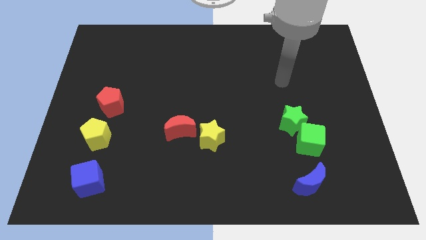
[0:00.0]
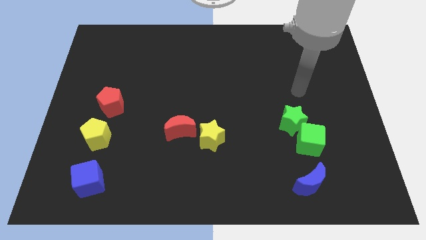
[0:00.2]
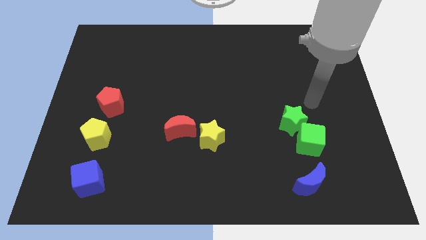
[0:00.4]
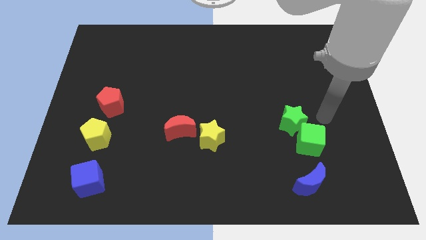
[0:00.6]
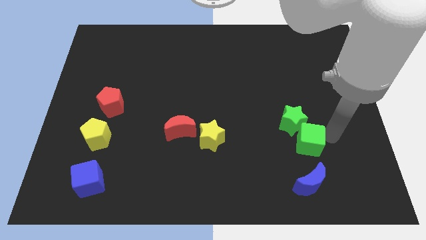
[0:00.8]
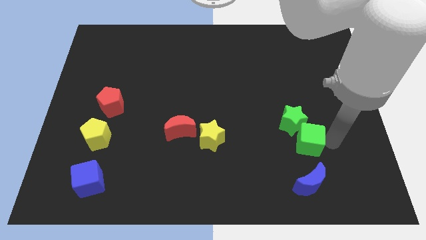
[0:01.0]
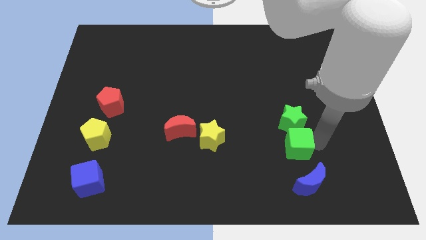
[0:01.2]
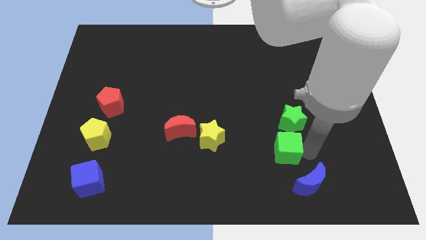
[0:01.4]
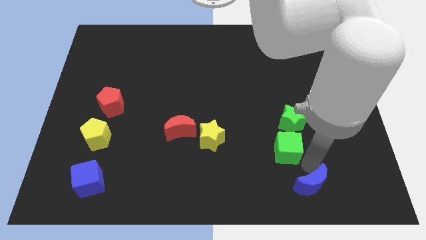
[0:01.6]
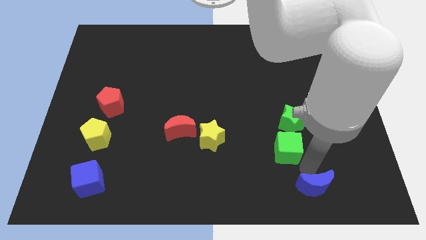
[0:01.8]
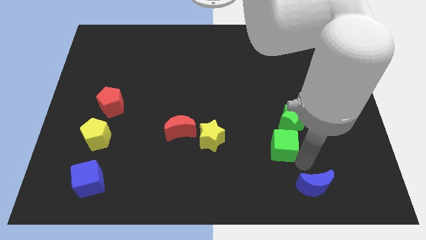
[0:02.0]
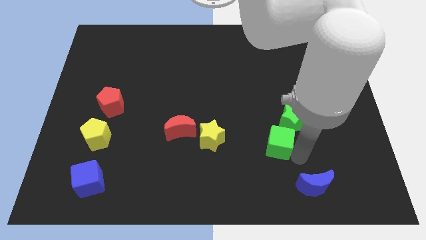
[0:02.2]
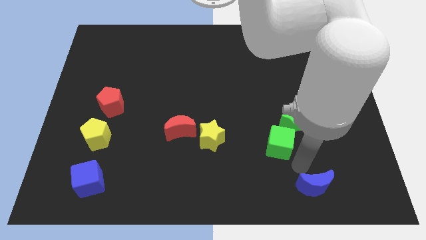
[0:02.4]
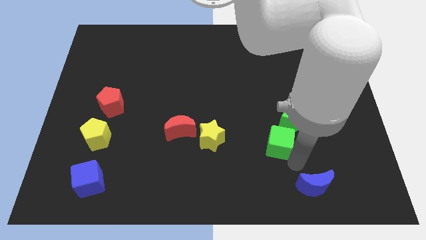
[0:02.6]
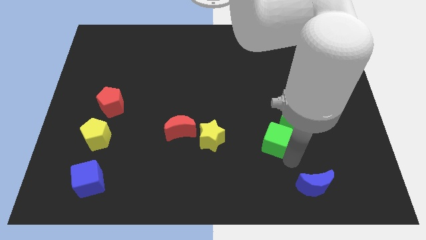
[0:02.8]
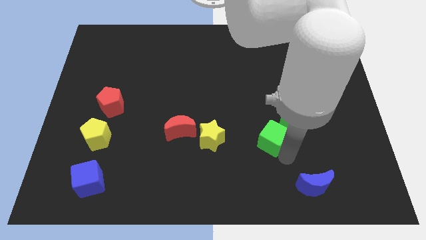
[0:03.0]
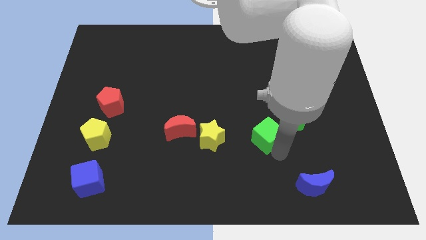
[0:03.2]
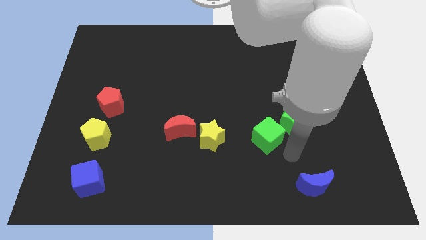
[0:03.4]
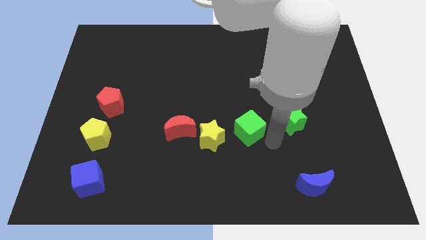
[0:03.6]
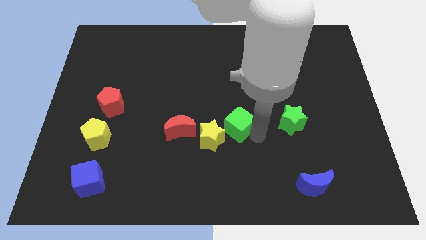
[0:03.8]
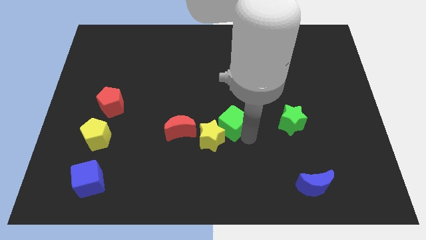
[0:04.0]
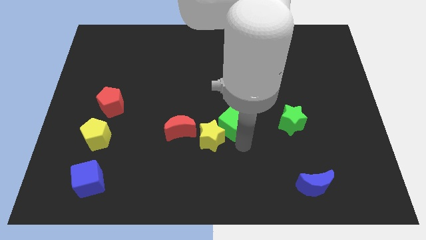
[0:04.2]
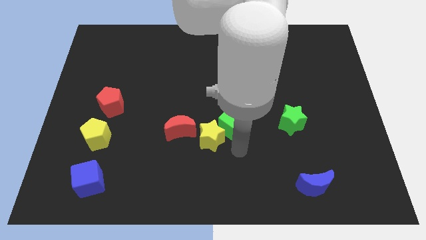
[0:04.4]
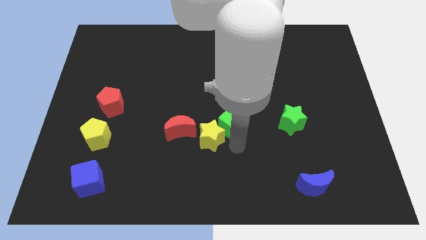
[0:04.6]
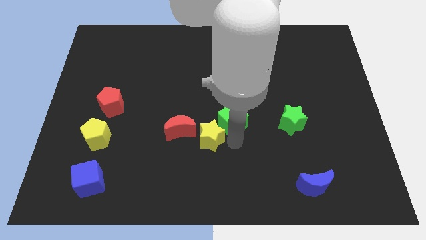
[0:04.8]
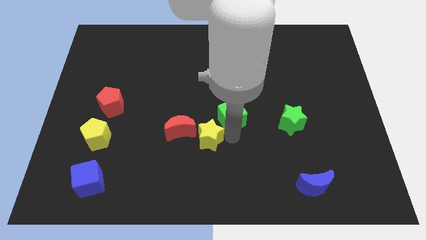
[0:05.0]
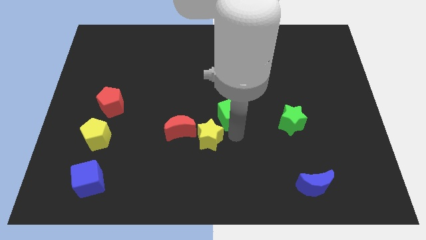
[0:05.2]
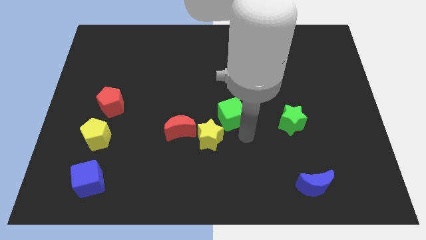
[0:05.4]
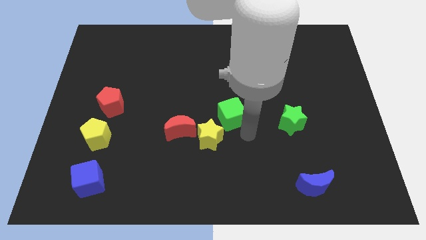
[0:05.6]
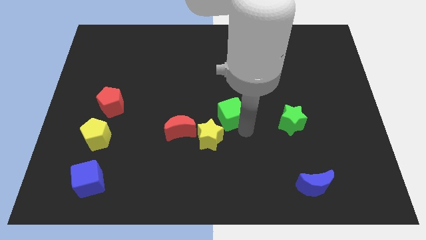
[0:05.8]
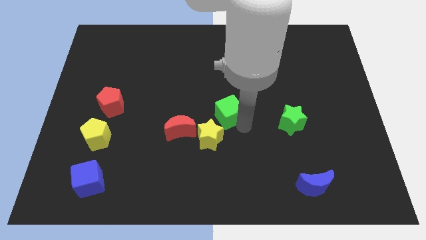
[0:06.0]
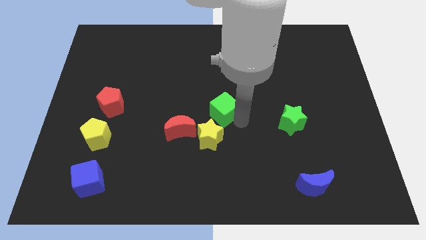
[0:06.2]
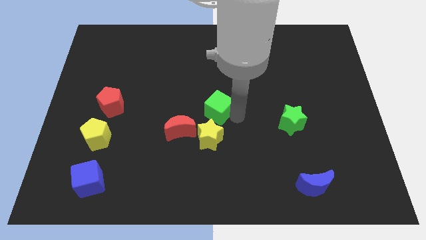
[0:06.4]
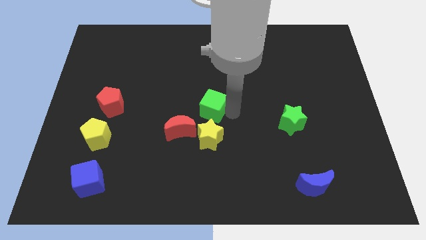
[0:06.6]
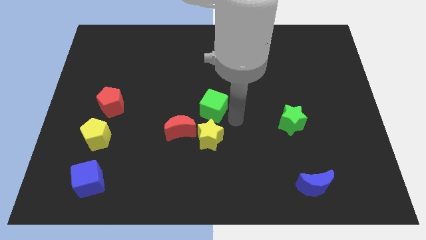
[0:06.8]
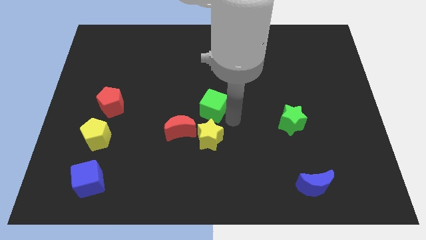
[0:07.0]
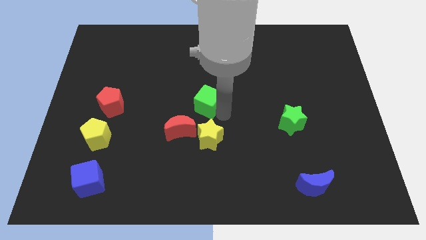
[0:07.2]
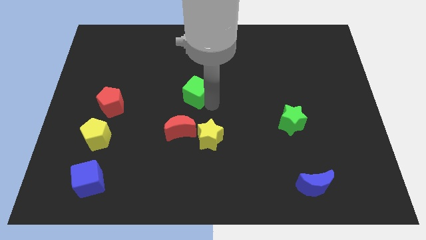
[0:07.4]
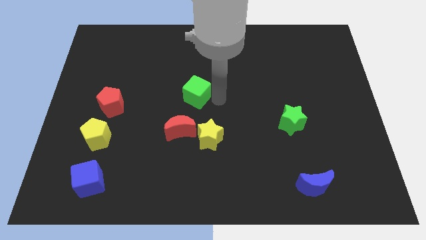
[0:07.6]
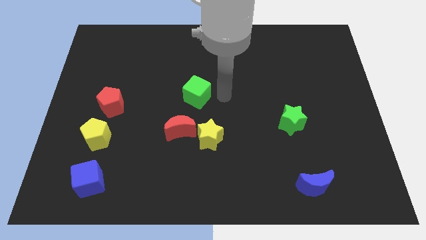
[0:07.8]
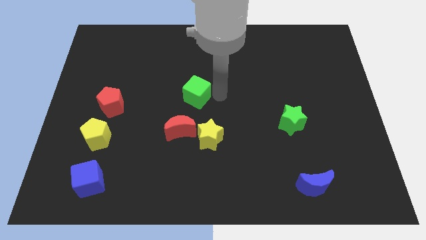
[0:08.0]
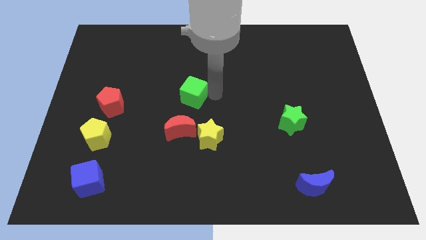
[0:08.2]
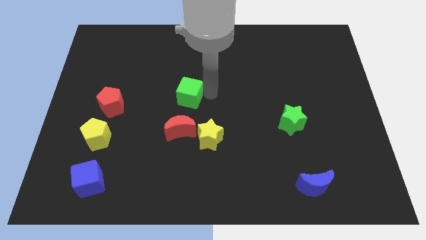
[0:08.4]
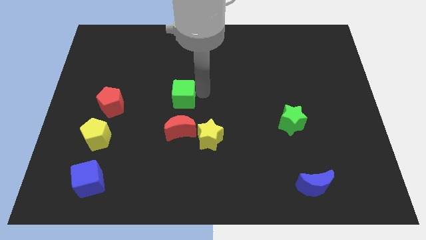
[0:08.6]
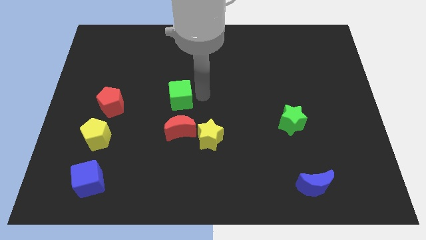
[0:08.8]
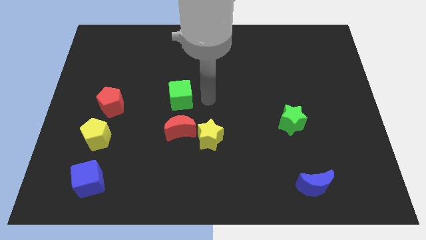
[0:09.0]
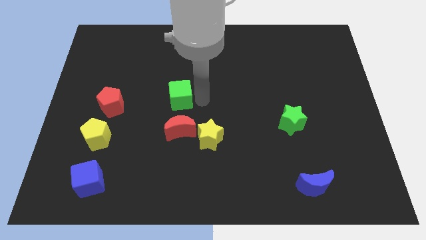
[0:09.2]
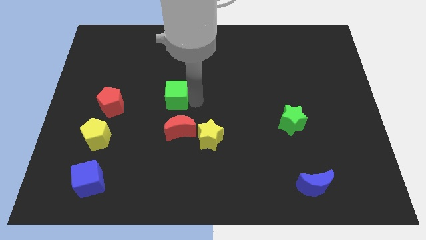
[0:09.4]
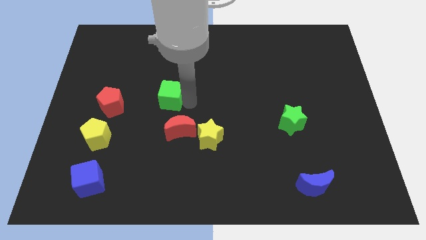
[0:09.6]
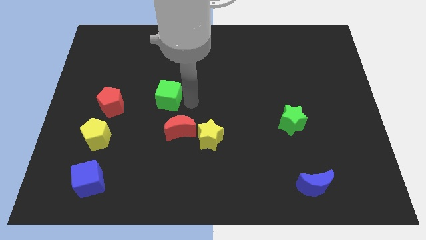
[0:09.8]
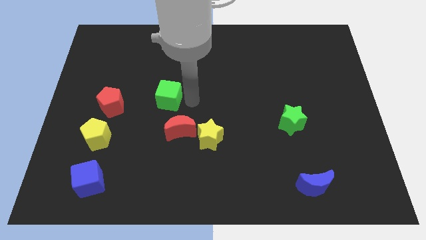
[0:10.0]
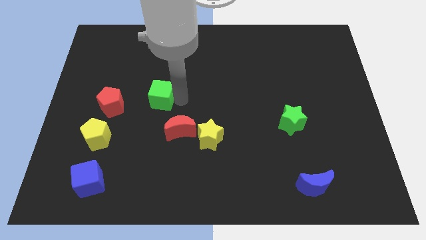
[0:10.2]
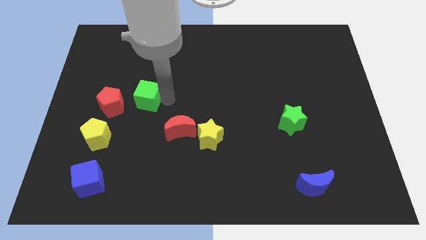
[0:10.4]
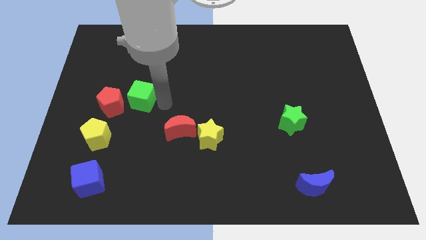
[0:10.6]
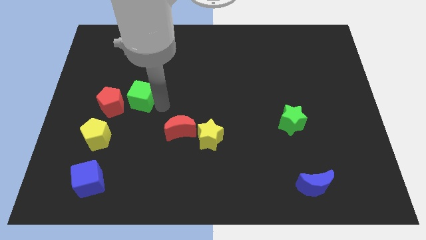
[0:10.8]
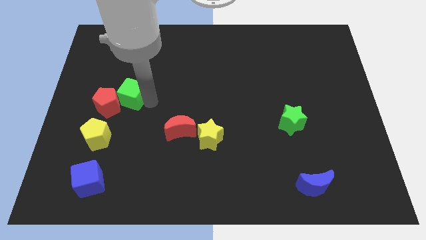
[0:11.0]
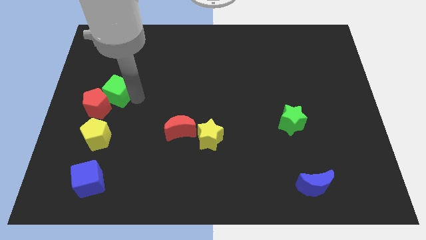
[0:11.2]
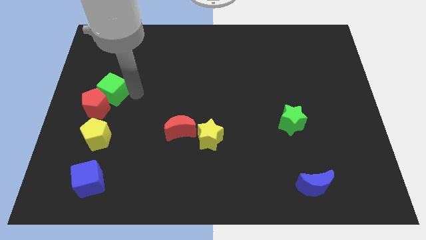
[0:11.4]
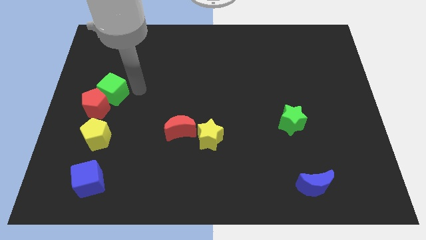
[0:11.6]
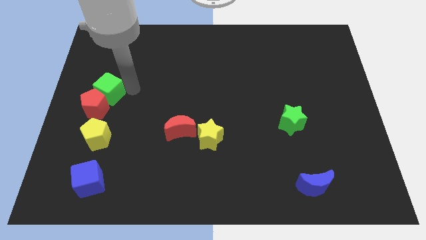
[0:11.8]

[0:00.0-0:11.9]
push the green cube to the center left
